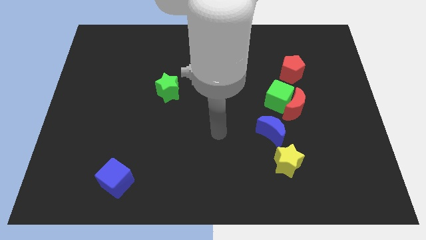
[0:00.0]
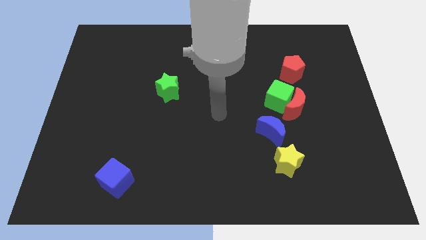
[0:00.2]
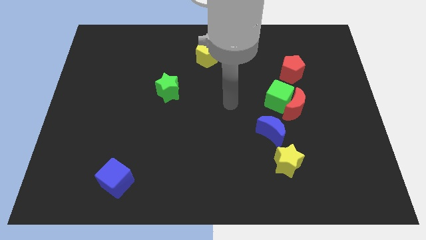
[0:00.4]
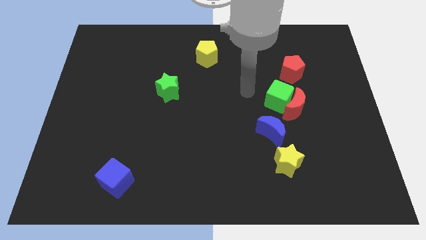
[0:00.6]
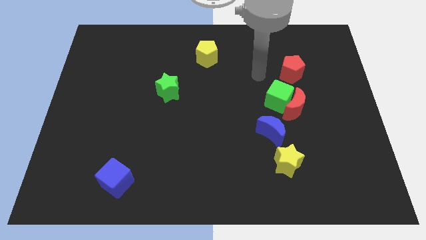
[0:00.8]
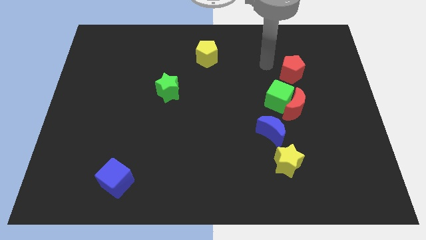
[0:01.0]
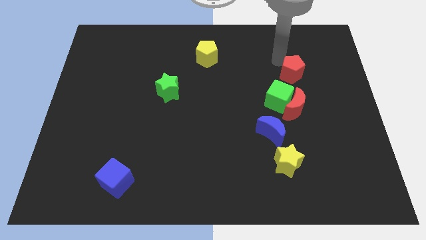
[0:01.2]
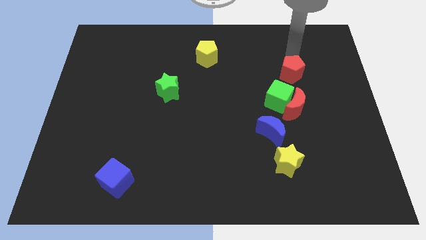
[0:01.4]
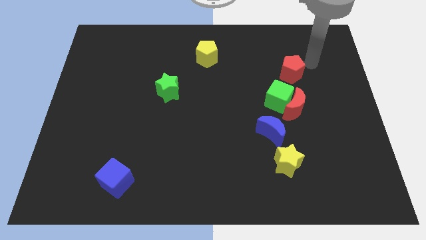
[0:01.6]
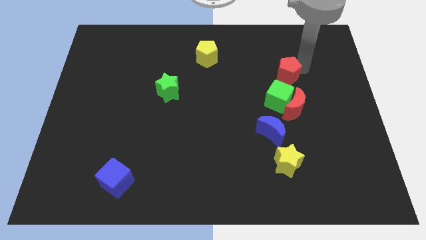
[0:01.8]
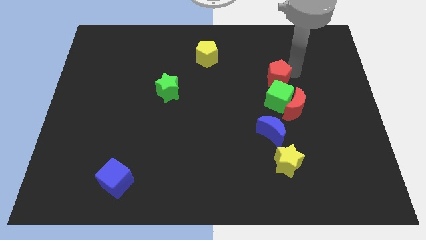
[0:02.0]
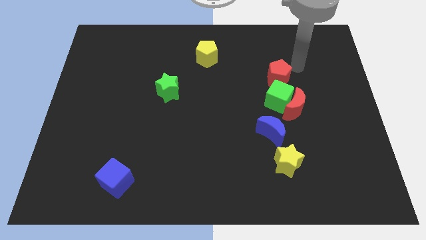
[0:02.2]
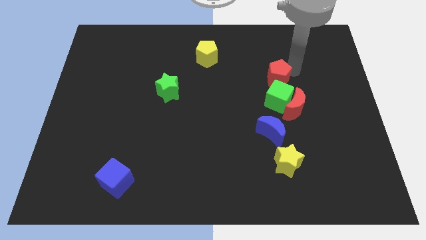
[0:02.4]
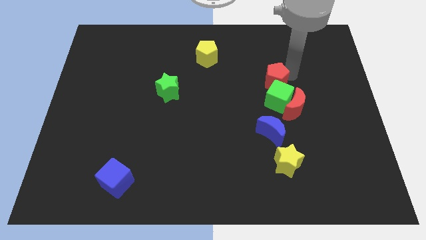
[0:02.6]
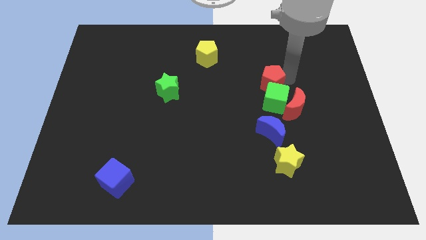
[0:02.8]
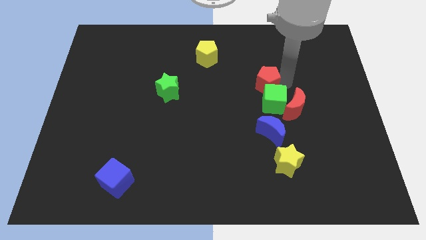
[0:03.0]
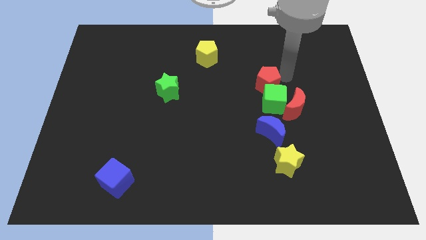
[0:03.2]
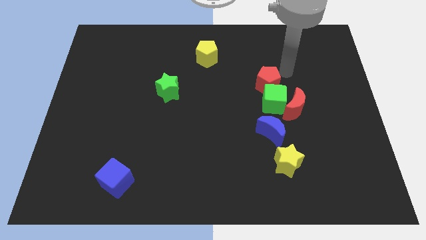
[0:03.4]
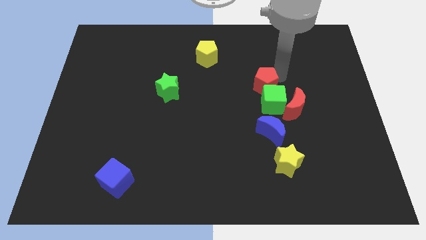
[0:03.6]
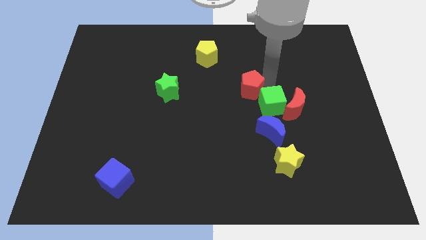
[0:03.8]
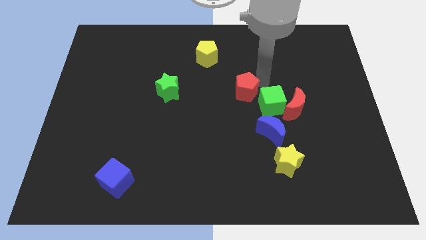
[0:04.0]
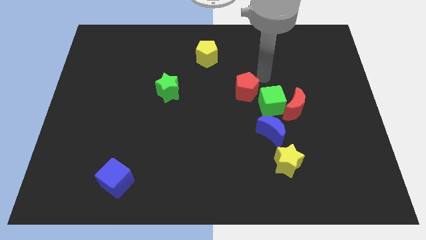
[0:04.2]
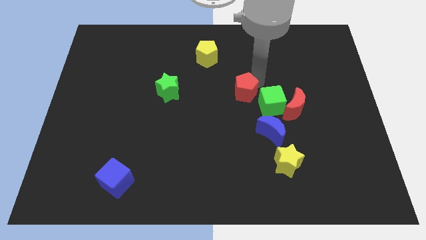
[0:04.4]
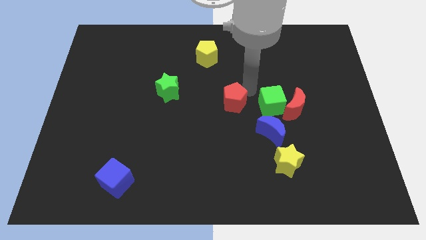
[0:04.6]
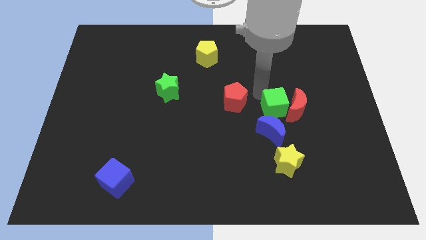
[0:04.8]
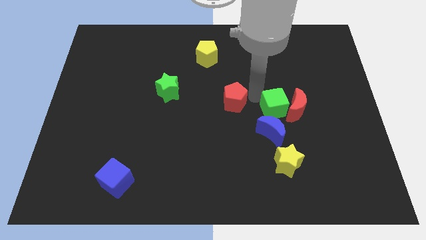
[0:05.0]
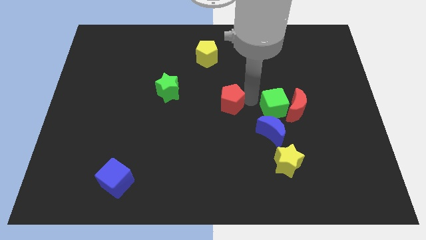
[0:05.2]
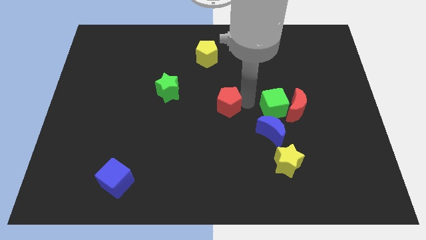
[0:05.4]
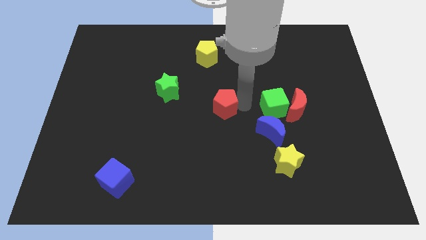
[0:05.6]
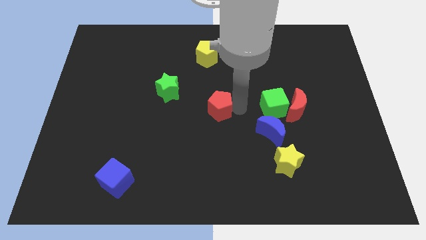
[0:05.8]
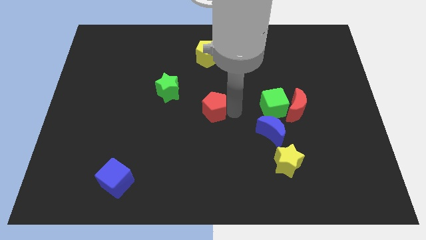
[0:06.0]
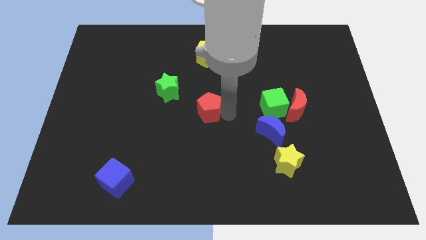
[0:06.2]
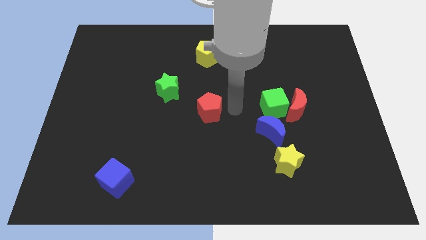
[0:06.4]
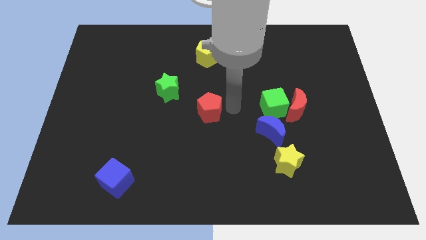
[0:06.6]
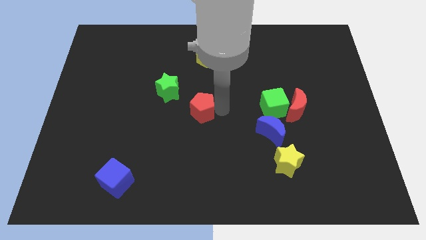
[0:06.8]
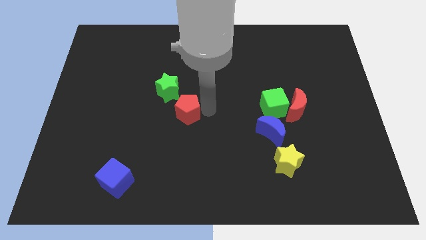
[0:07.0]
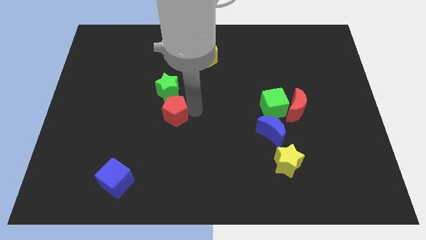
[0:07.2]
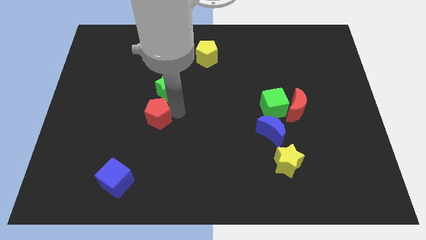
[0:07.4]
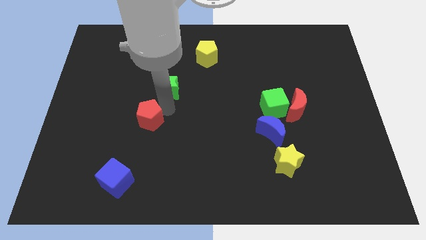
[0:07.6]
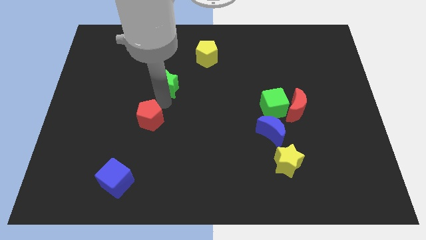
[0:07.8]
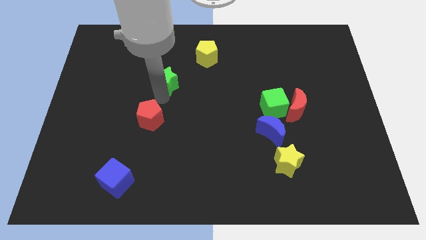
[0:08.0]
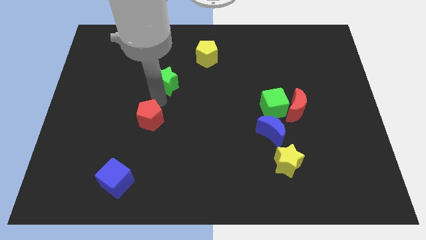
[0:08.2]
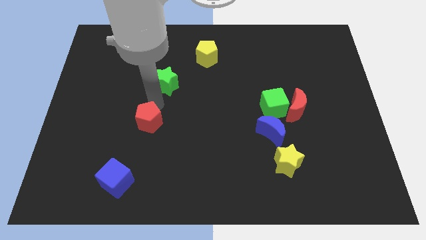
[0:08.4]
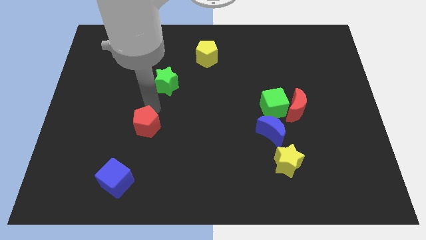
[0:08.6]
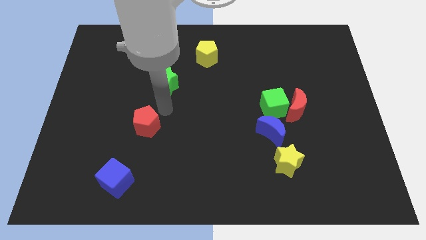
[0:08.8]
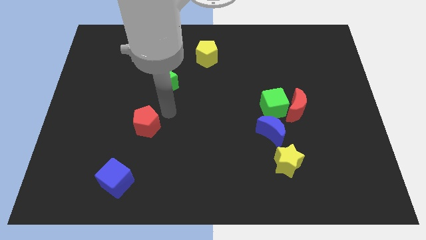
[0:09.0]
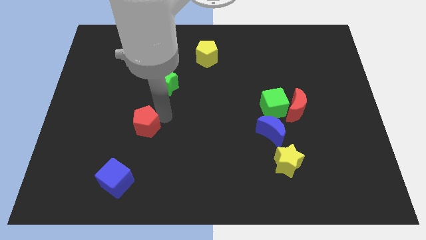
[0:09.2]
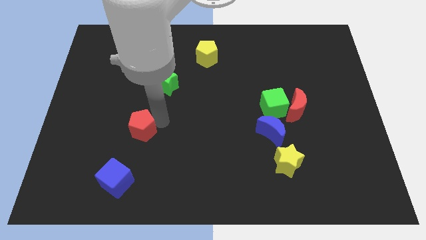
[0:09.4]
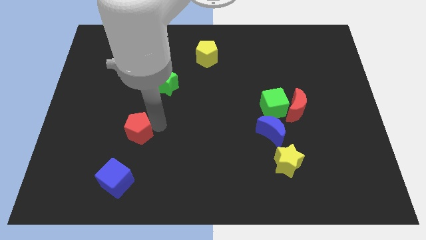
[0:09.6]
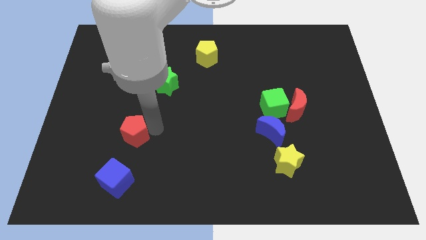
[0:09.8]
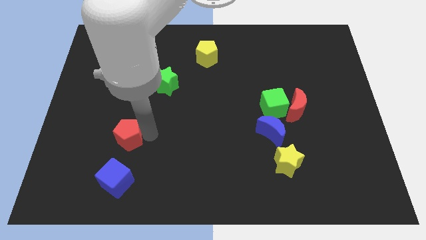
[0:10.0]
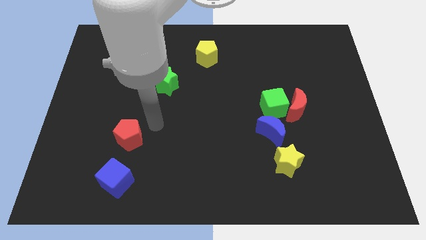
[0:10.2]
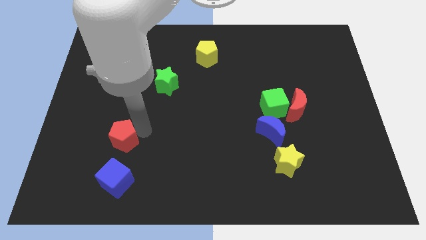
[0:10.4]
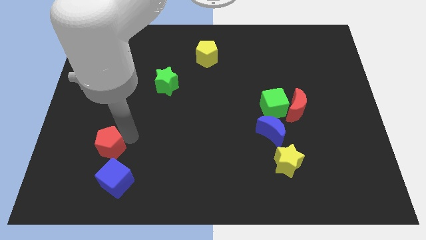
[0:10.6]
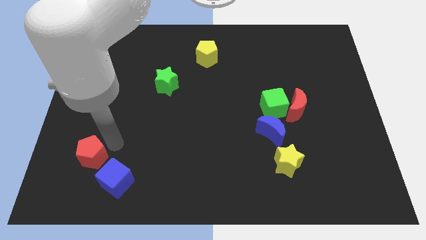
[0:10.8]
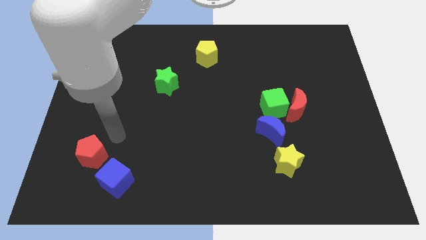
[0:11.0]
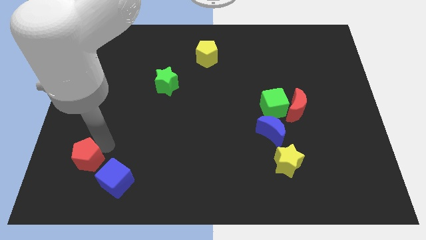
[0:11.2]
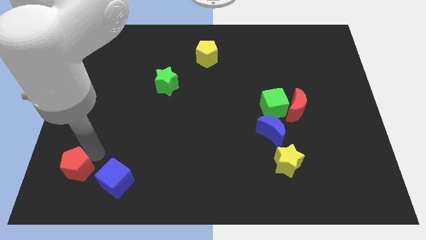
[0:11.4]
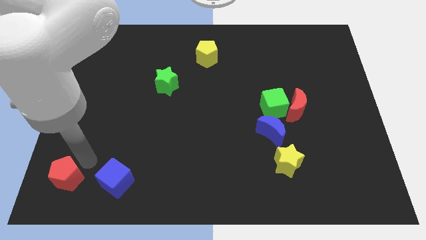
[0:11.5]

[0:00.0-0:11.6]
put the red pentagon to the bottom left of the board
